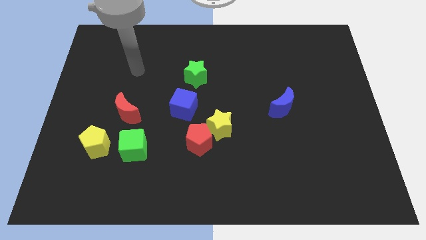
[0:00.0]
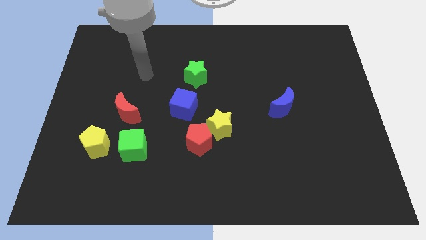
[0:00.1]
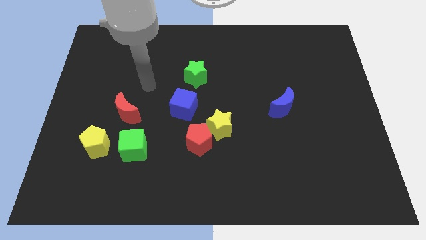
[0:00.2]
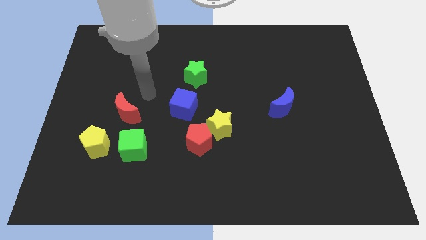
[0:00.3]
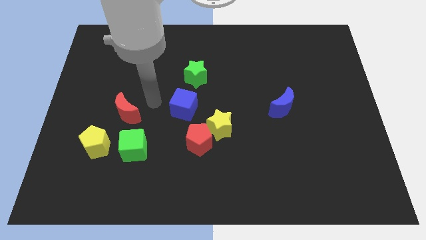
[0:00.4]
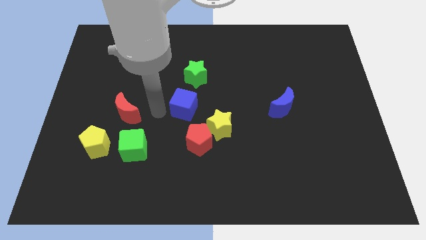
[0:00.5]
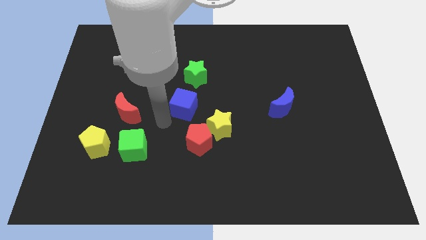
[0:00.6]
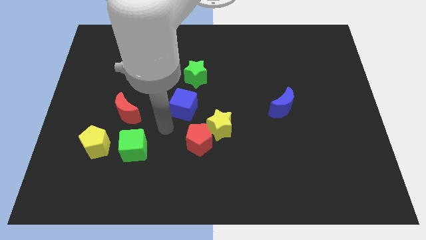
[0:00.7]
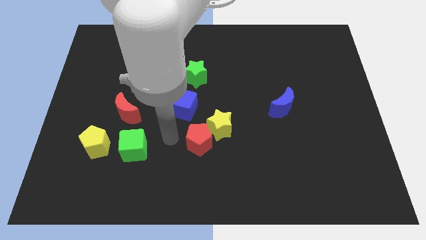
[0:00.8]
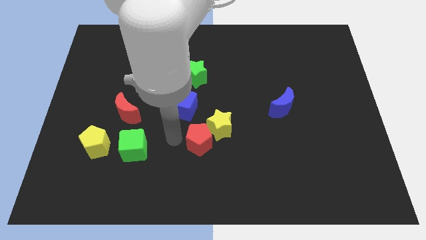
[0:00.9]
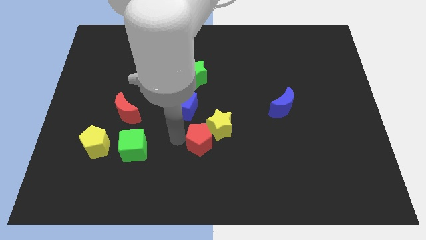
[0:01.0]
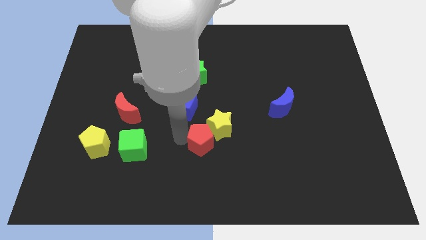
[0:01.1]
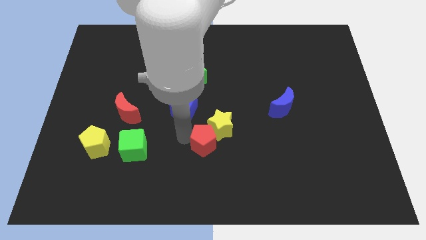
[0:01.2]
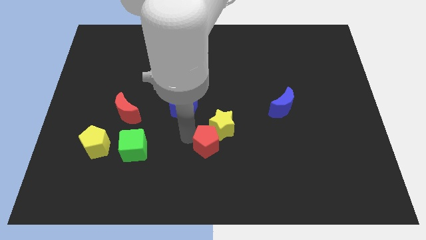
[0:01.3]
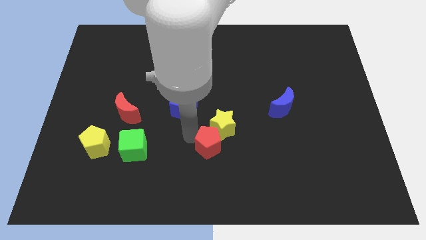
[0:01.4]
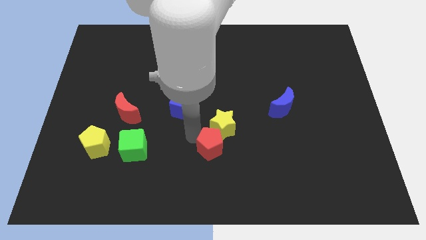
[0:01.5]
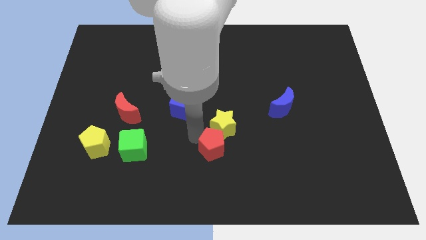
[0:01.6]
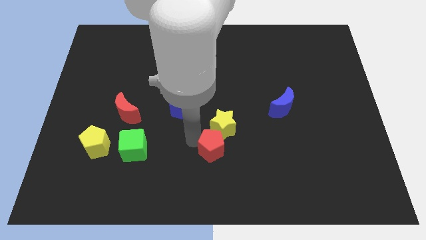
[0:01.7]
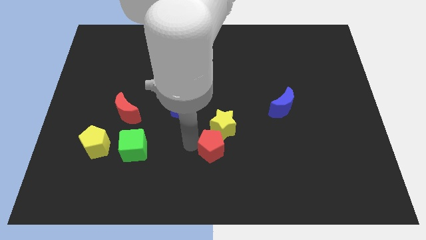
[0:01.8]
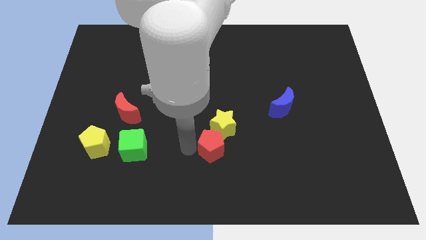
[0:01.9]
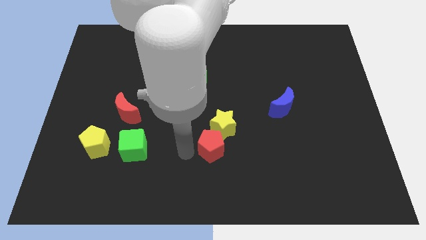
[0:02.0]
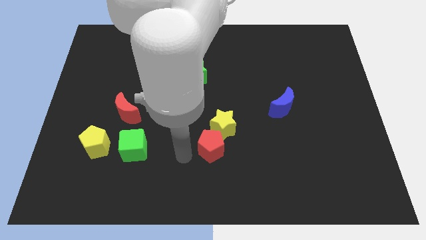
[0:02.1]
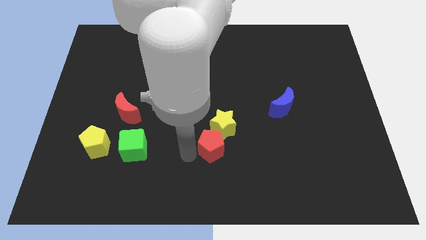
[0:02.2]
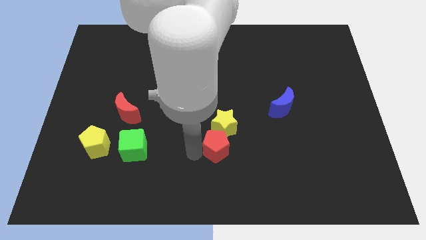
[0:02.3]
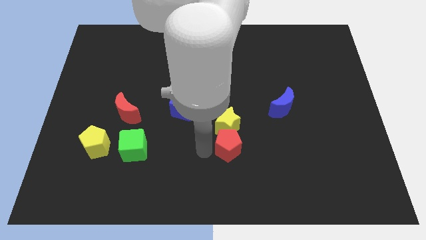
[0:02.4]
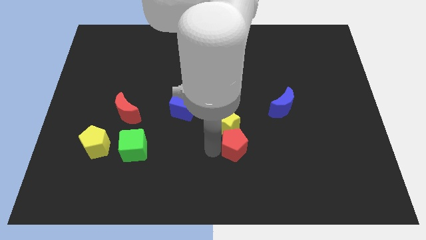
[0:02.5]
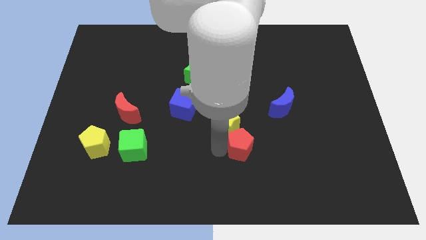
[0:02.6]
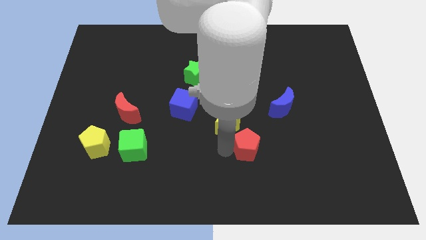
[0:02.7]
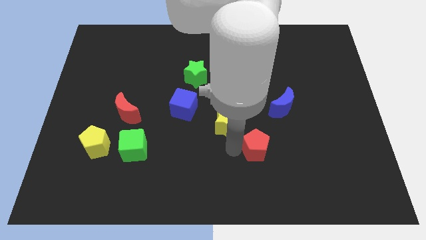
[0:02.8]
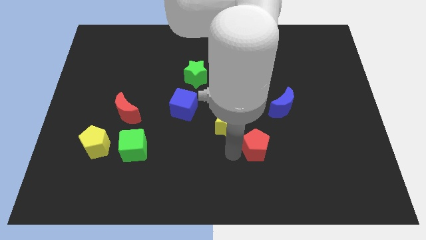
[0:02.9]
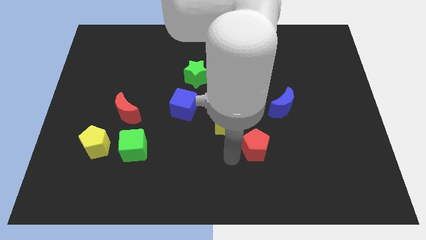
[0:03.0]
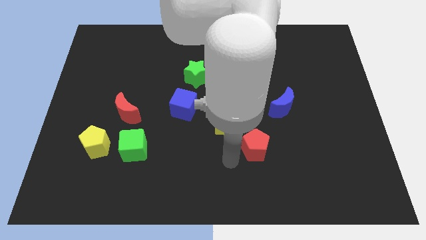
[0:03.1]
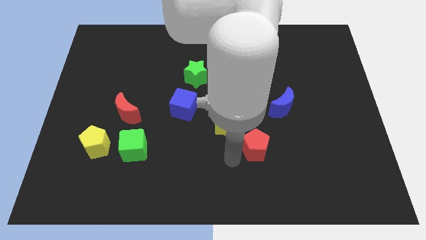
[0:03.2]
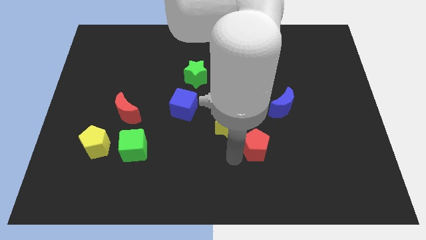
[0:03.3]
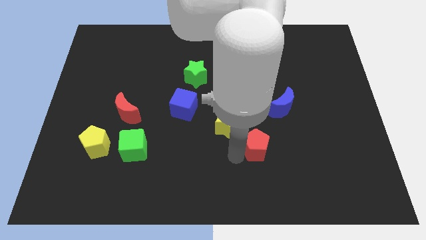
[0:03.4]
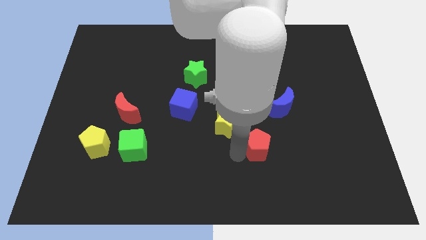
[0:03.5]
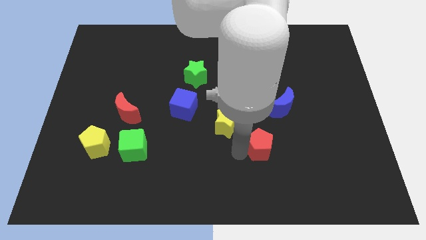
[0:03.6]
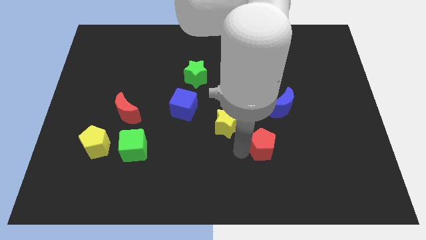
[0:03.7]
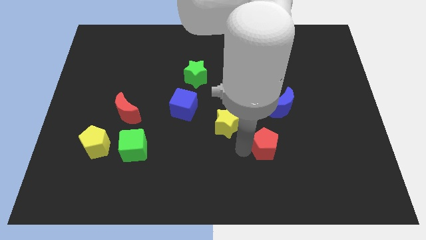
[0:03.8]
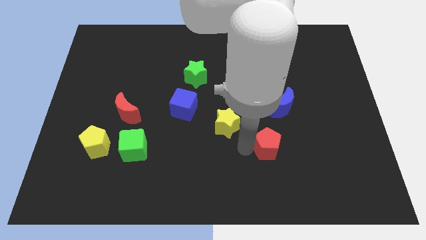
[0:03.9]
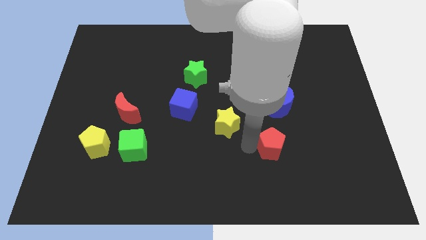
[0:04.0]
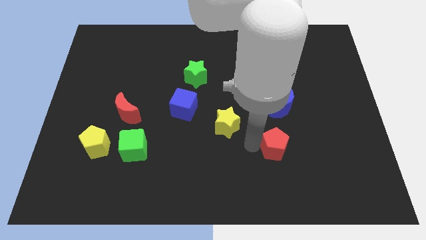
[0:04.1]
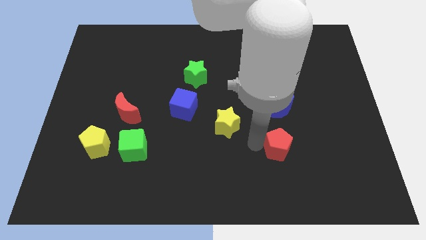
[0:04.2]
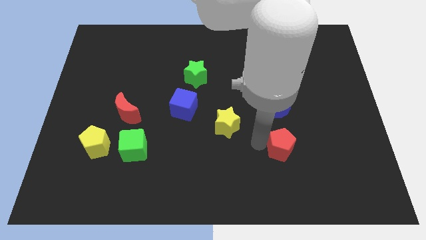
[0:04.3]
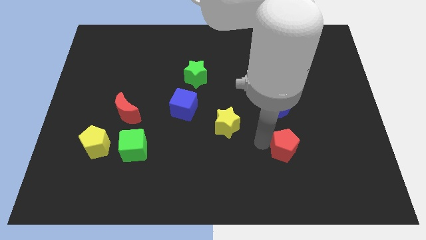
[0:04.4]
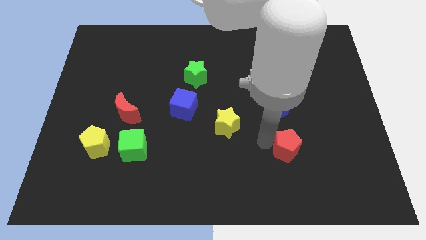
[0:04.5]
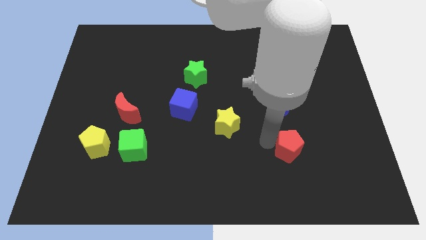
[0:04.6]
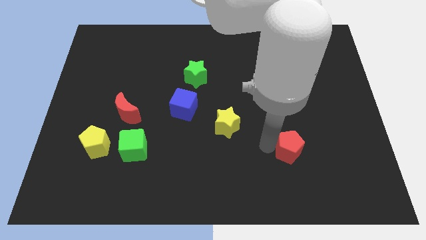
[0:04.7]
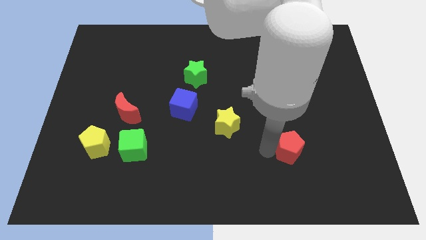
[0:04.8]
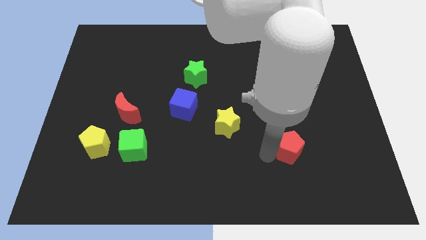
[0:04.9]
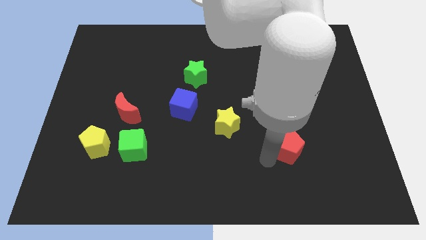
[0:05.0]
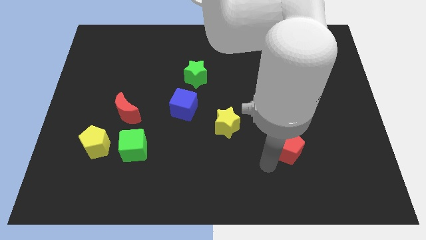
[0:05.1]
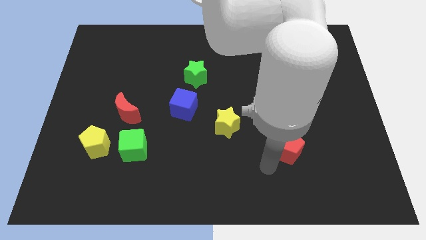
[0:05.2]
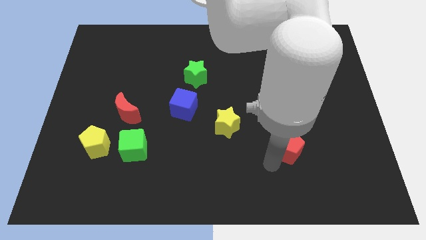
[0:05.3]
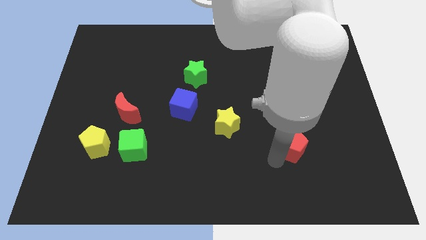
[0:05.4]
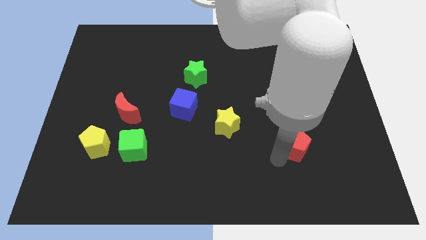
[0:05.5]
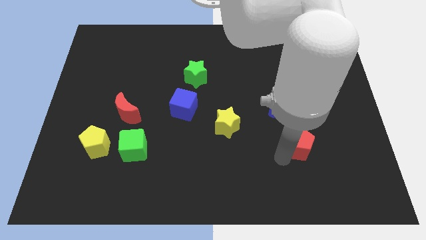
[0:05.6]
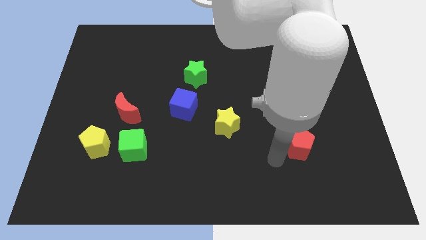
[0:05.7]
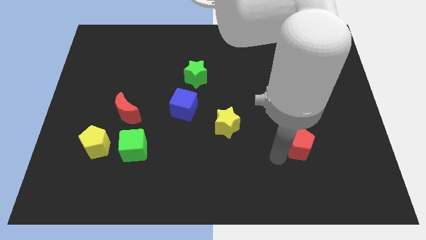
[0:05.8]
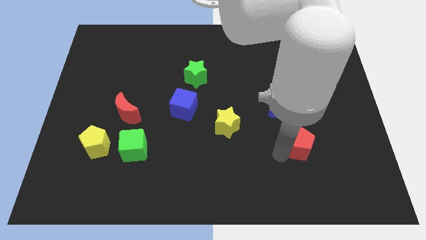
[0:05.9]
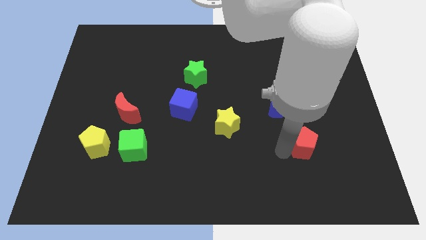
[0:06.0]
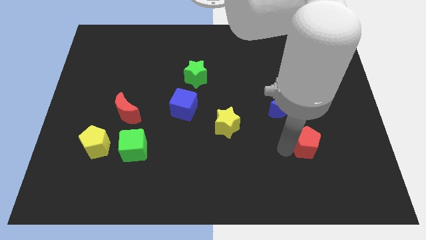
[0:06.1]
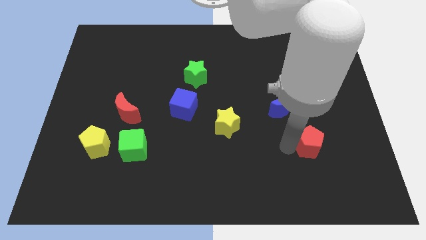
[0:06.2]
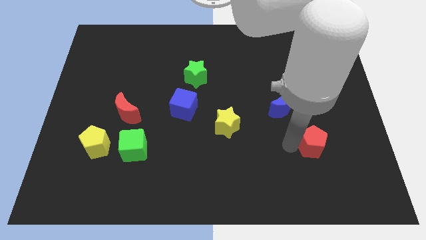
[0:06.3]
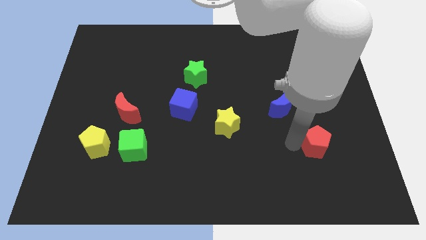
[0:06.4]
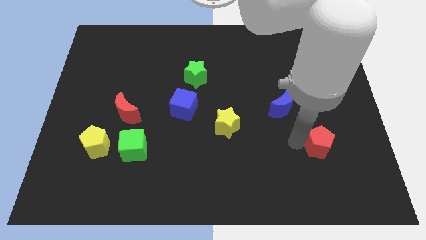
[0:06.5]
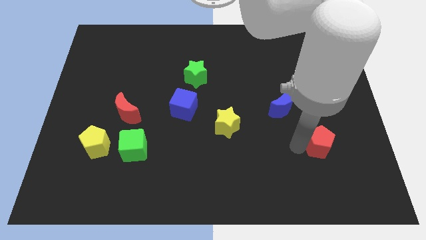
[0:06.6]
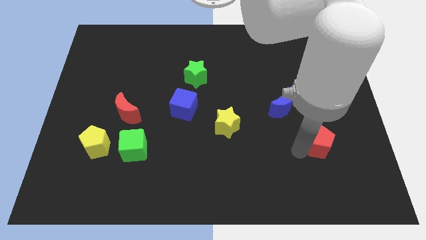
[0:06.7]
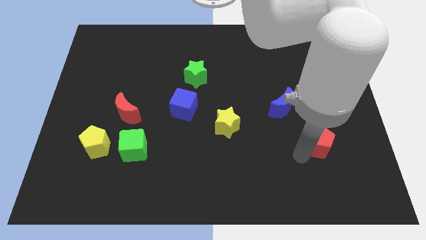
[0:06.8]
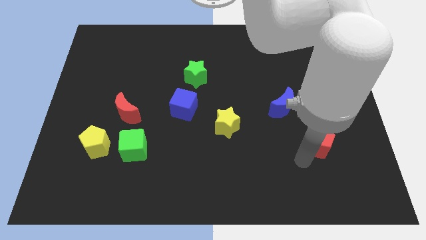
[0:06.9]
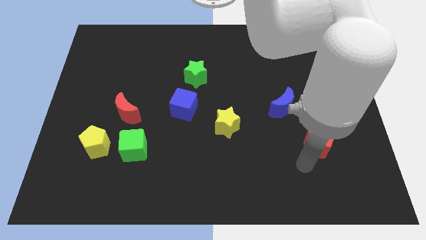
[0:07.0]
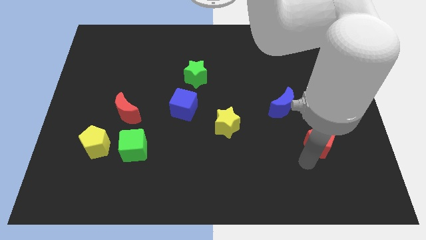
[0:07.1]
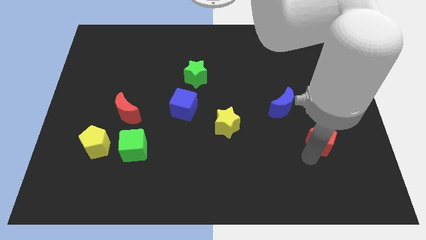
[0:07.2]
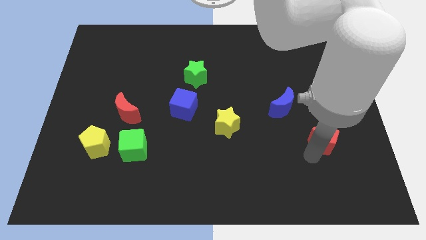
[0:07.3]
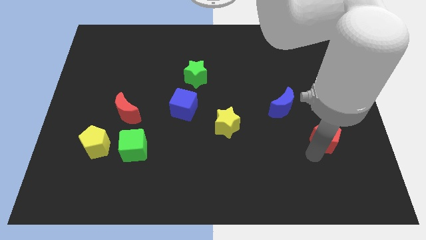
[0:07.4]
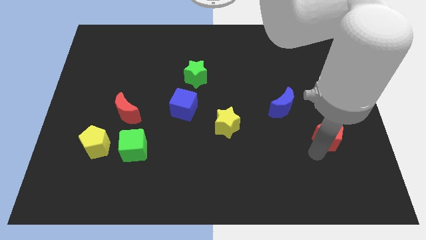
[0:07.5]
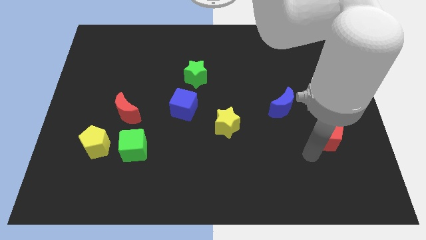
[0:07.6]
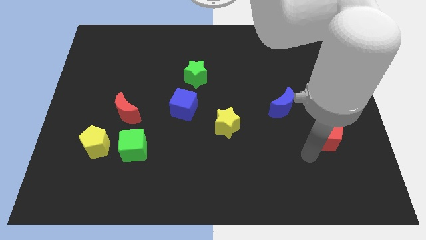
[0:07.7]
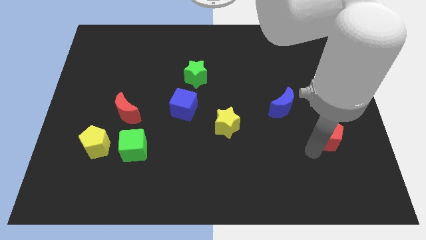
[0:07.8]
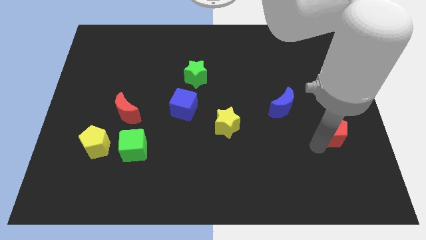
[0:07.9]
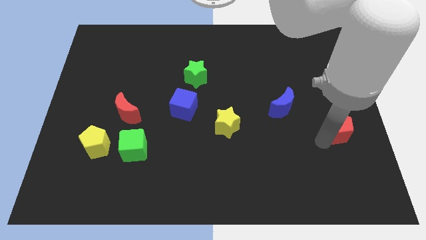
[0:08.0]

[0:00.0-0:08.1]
slide the red pentagon to the right side
